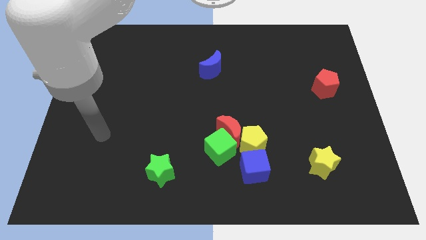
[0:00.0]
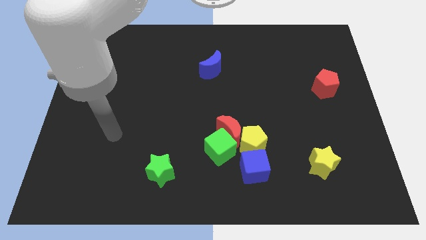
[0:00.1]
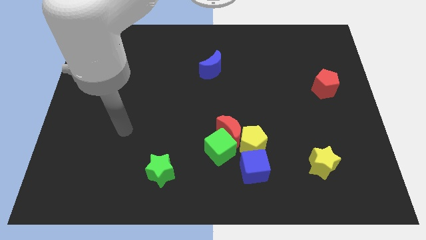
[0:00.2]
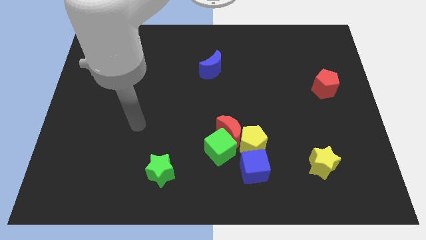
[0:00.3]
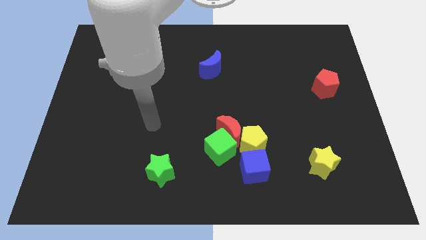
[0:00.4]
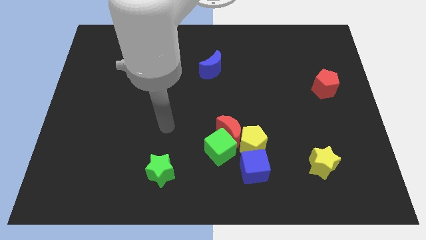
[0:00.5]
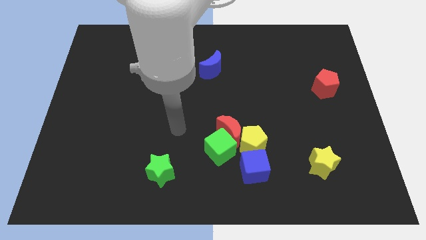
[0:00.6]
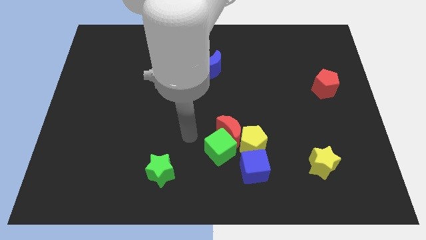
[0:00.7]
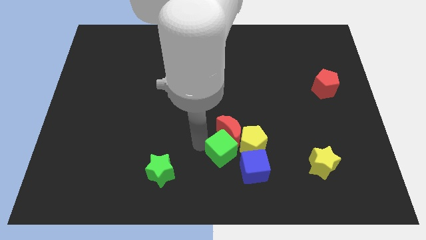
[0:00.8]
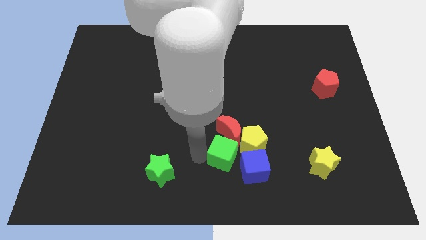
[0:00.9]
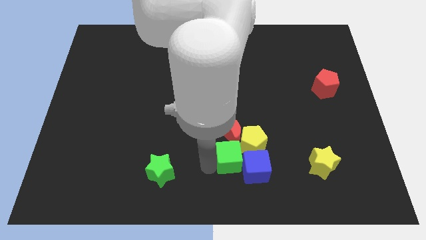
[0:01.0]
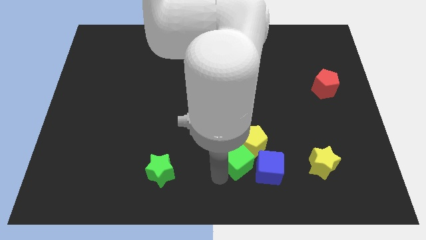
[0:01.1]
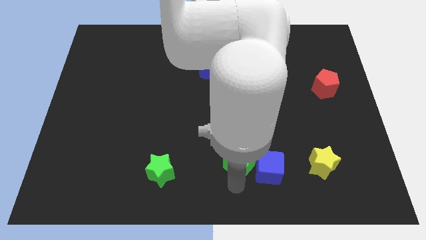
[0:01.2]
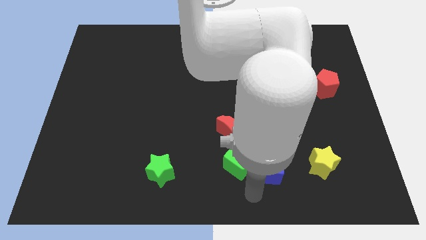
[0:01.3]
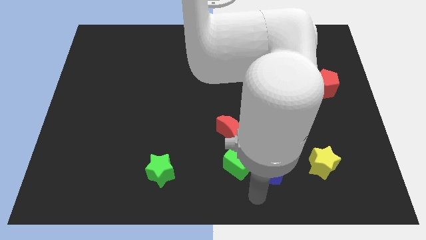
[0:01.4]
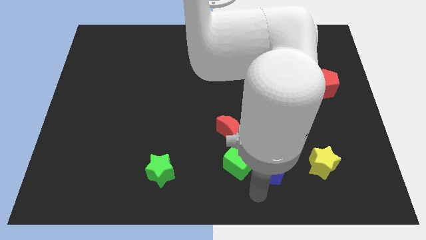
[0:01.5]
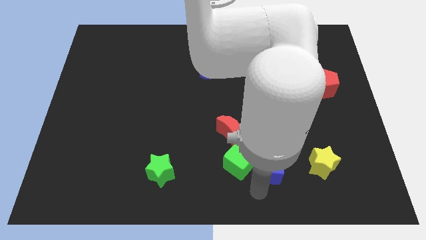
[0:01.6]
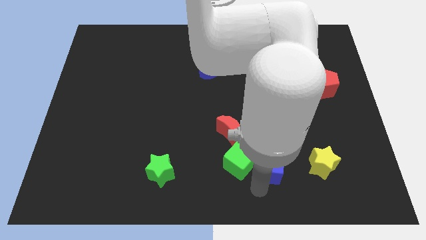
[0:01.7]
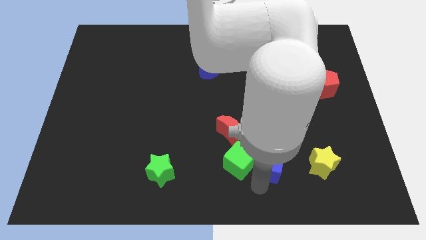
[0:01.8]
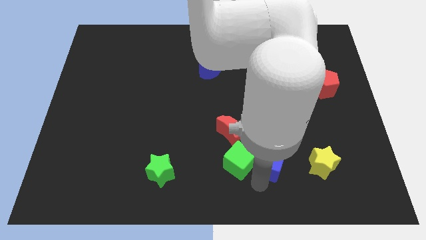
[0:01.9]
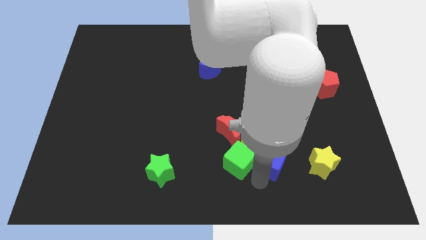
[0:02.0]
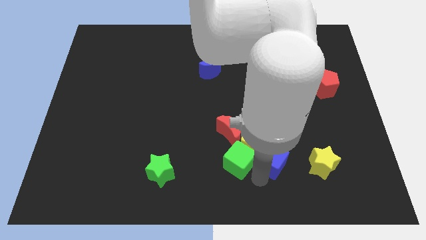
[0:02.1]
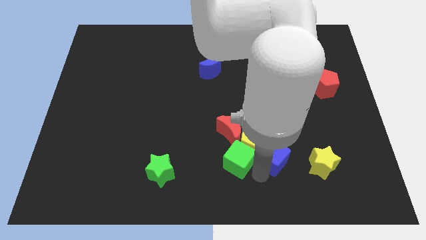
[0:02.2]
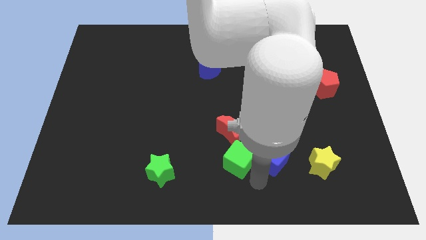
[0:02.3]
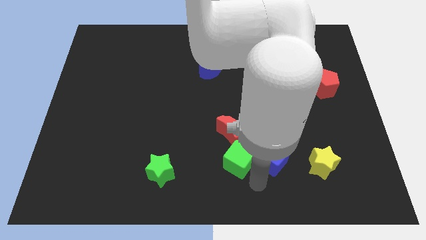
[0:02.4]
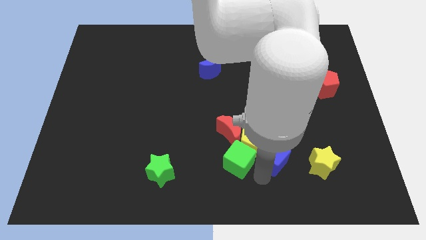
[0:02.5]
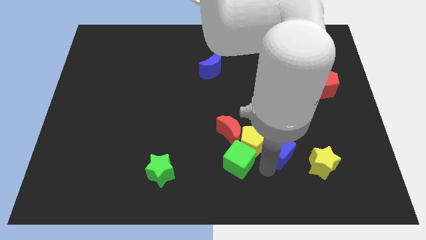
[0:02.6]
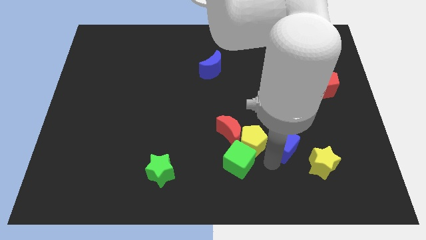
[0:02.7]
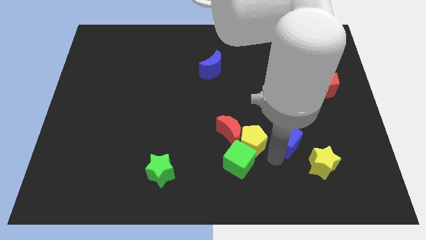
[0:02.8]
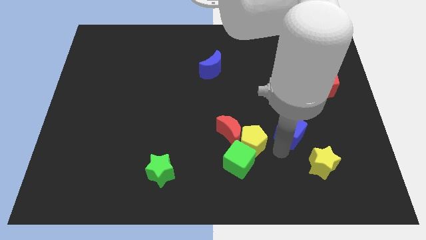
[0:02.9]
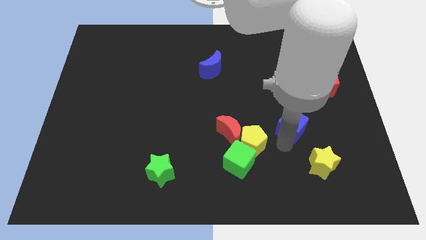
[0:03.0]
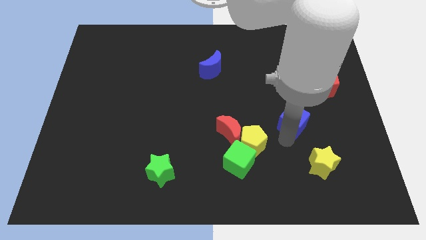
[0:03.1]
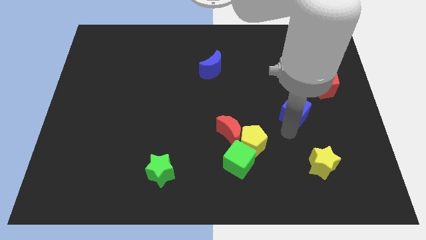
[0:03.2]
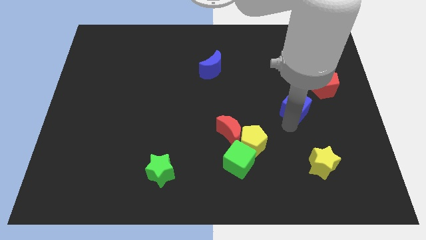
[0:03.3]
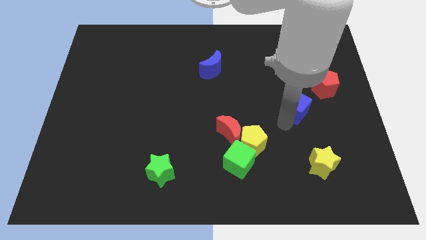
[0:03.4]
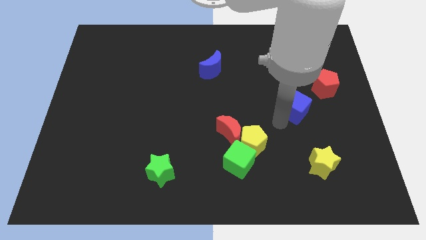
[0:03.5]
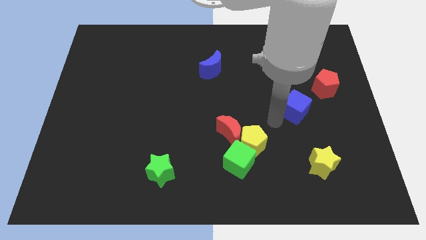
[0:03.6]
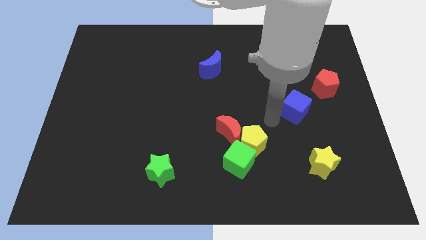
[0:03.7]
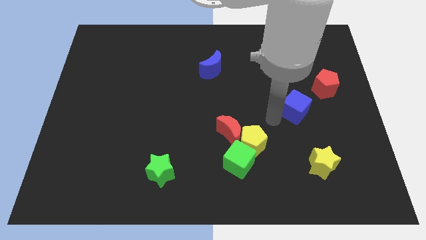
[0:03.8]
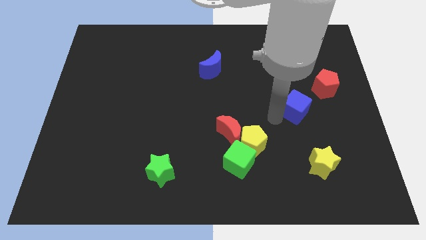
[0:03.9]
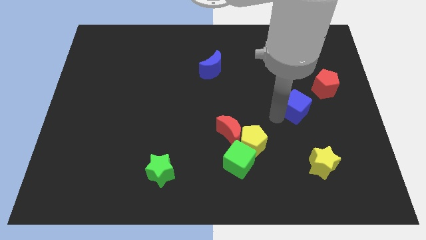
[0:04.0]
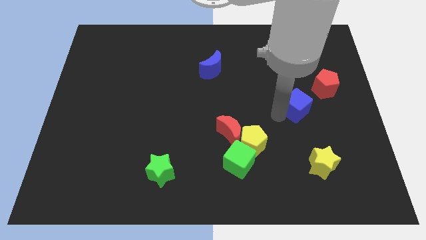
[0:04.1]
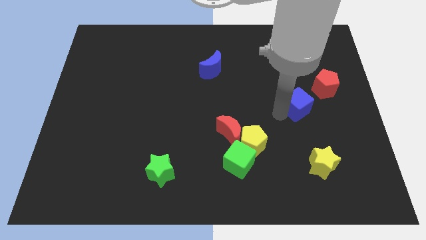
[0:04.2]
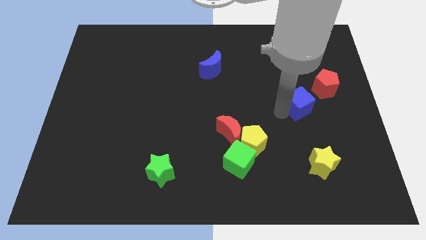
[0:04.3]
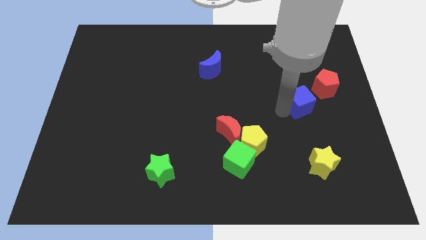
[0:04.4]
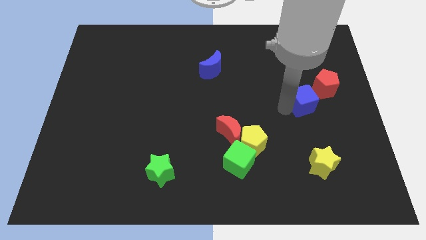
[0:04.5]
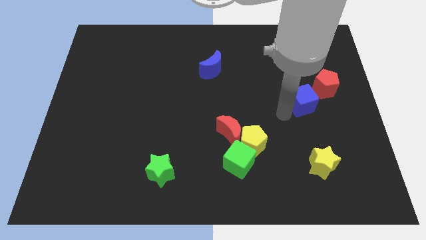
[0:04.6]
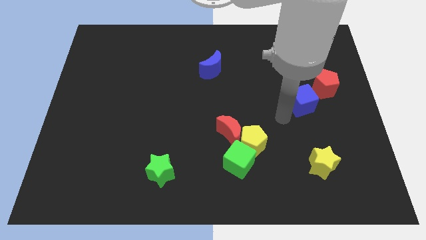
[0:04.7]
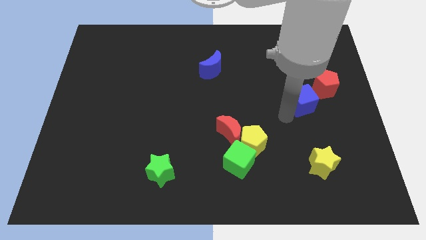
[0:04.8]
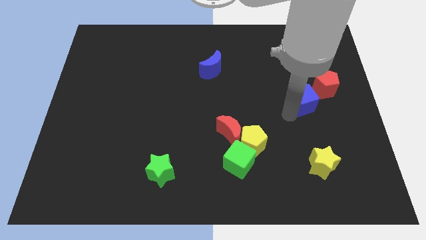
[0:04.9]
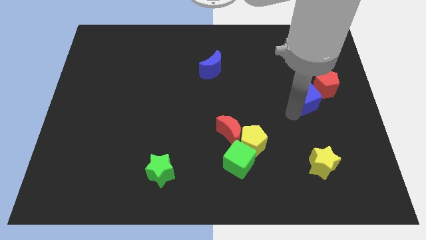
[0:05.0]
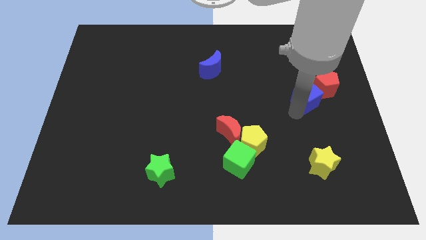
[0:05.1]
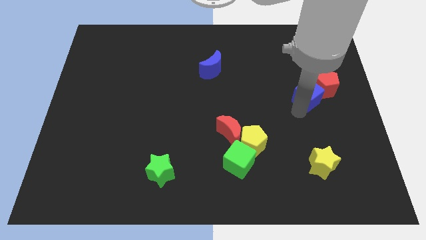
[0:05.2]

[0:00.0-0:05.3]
move the blue cube towards the red pentagon

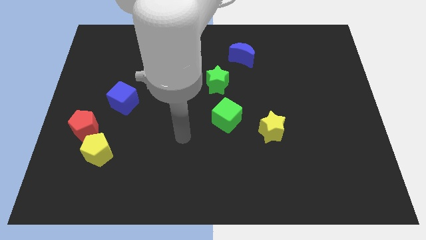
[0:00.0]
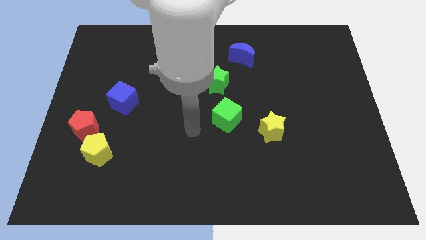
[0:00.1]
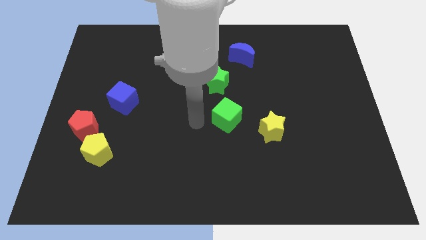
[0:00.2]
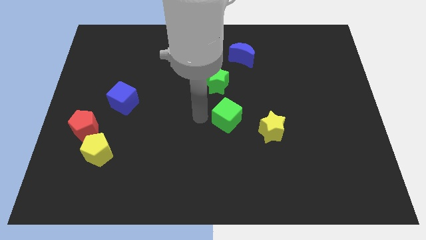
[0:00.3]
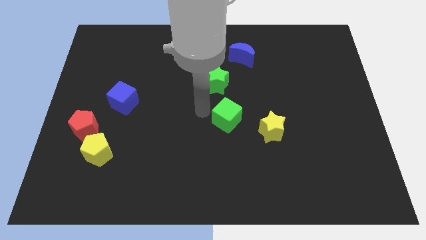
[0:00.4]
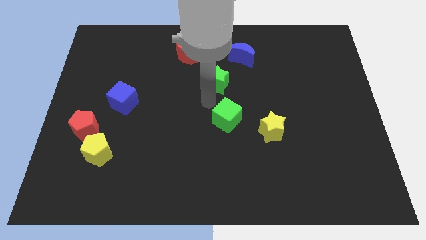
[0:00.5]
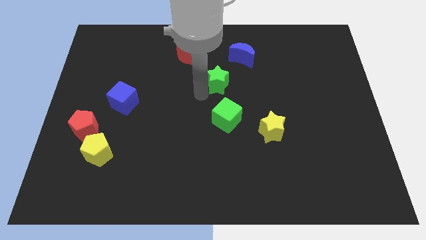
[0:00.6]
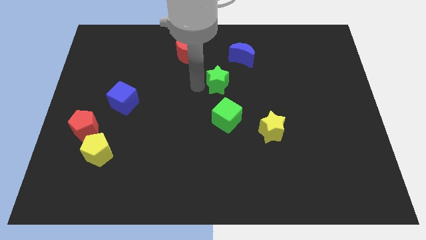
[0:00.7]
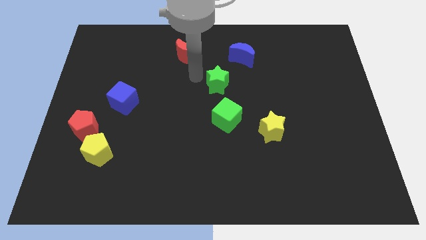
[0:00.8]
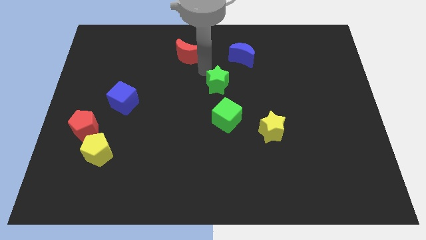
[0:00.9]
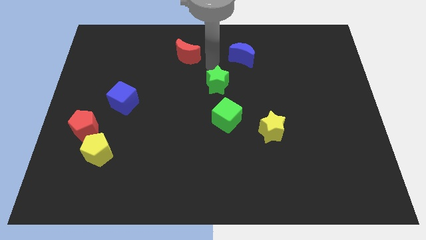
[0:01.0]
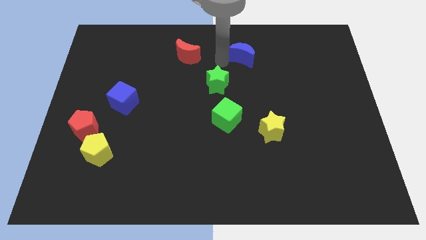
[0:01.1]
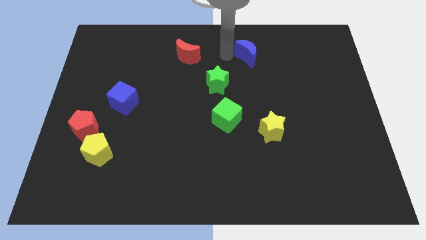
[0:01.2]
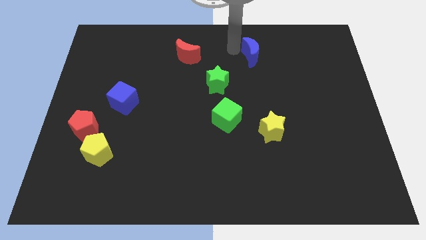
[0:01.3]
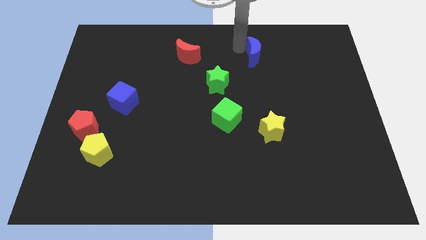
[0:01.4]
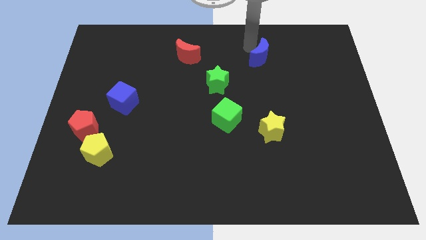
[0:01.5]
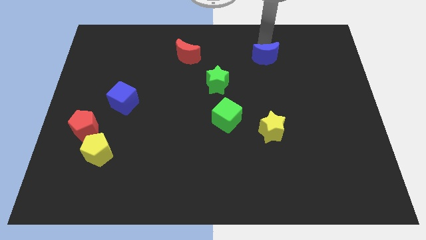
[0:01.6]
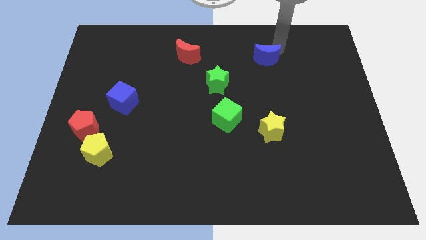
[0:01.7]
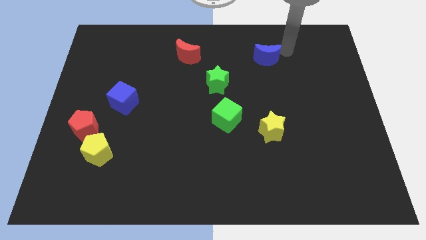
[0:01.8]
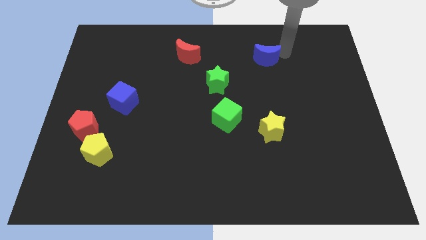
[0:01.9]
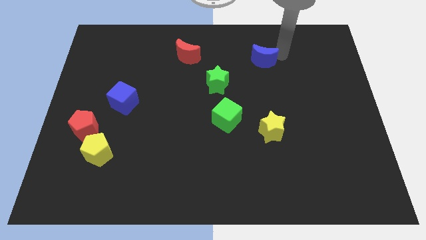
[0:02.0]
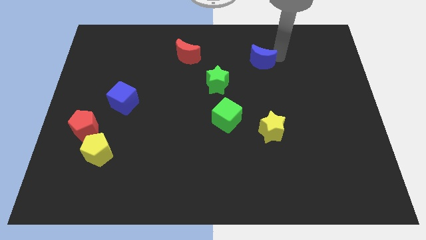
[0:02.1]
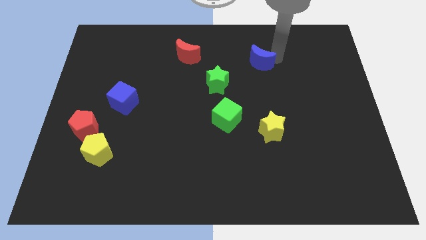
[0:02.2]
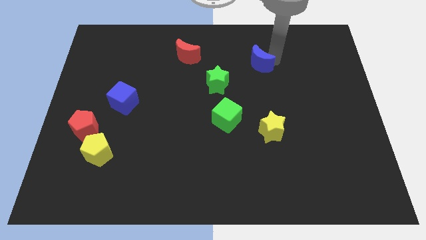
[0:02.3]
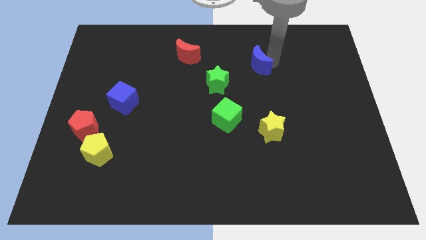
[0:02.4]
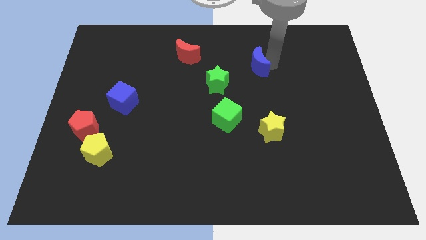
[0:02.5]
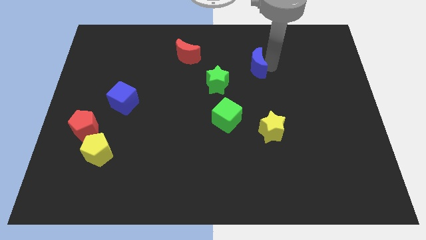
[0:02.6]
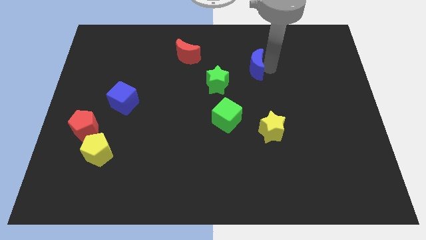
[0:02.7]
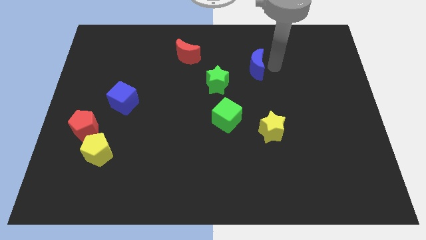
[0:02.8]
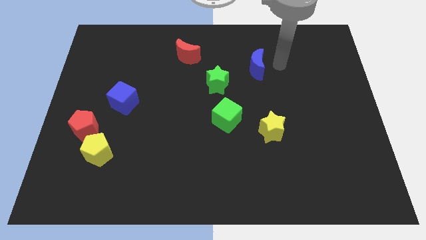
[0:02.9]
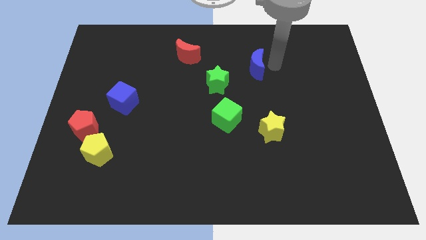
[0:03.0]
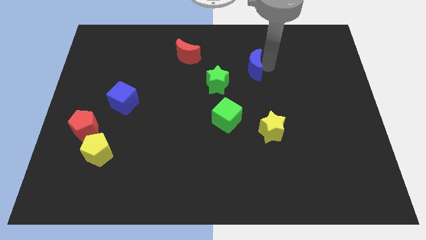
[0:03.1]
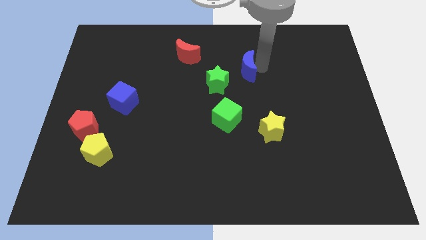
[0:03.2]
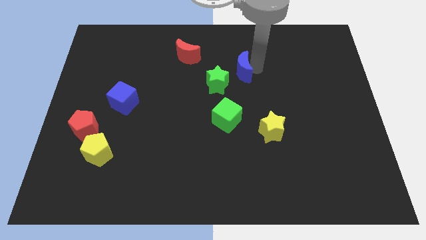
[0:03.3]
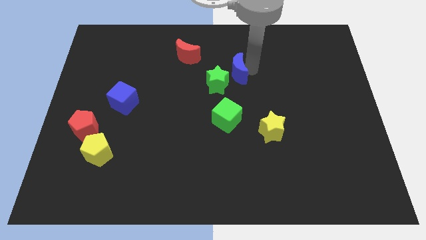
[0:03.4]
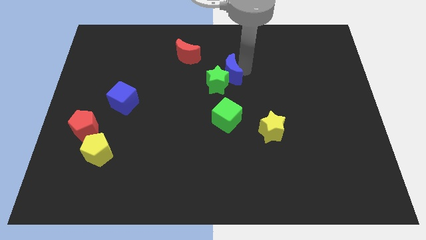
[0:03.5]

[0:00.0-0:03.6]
slide the blue moon close to the green star
